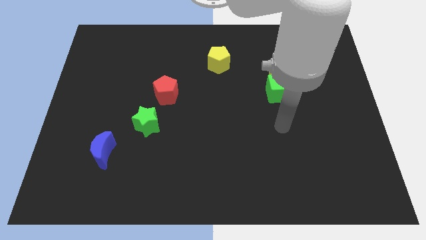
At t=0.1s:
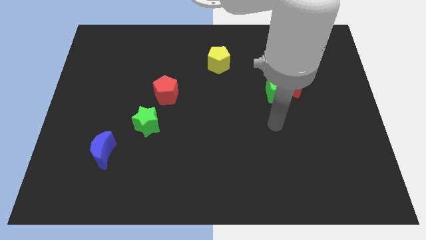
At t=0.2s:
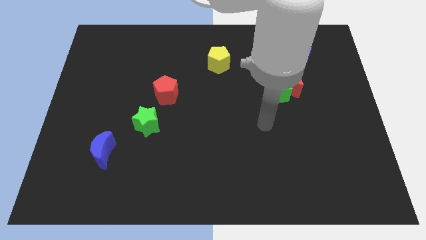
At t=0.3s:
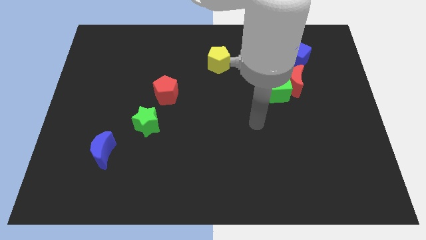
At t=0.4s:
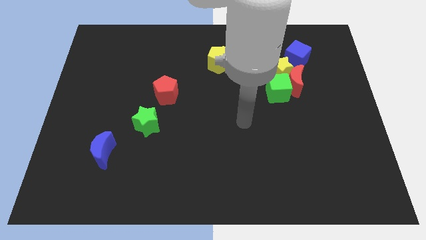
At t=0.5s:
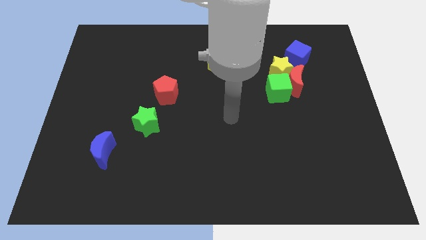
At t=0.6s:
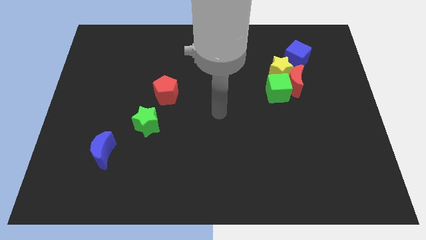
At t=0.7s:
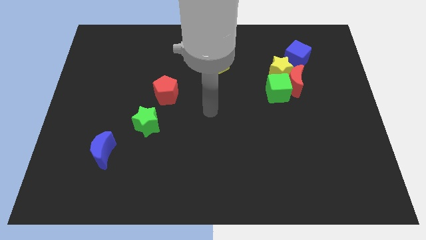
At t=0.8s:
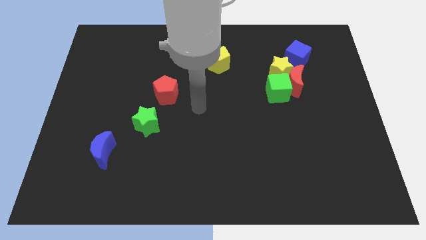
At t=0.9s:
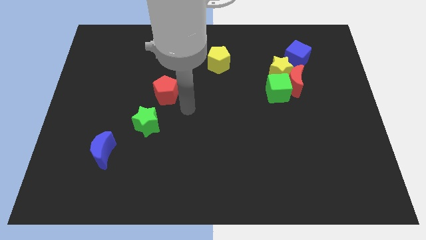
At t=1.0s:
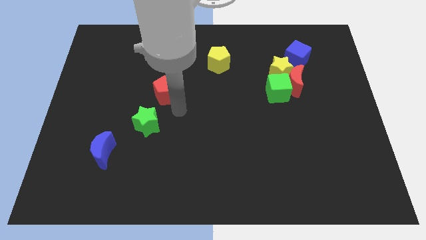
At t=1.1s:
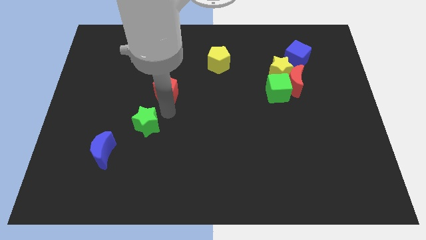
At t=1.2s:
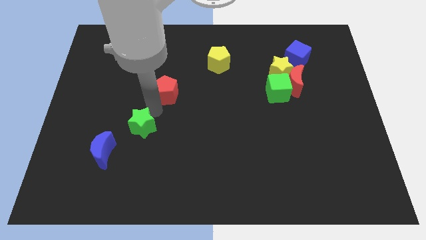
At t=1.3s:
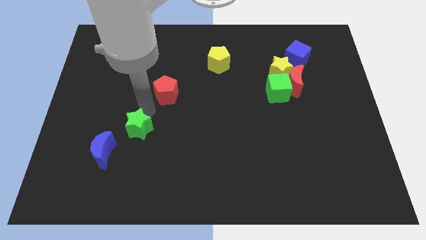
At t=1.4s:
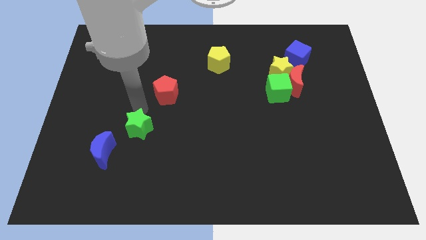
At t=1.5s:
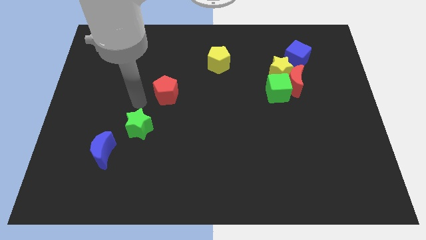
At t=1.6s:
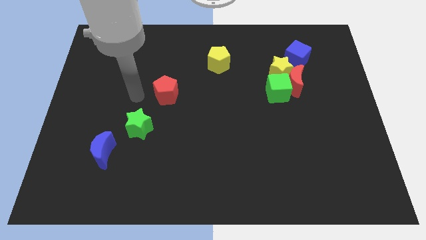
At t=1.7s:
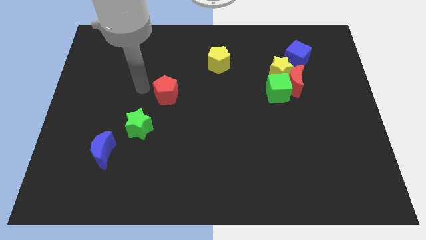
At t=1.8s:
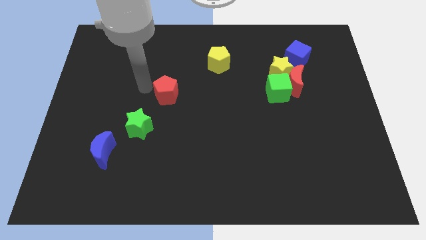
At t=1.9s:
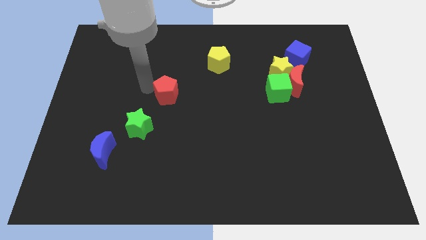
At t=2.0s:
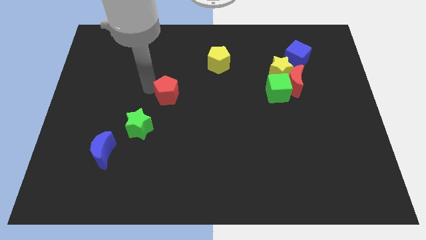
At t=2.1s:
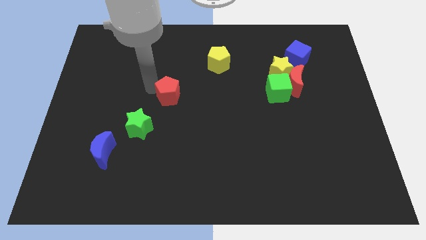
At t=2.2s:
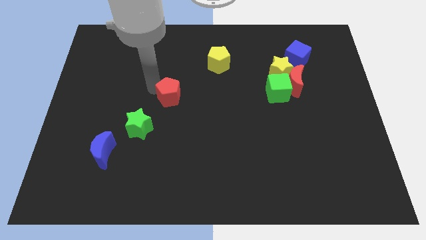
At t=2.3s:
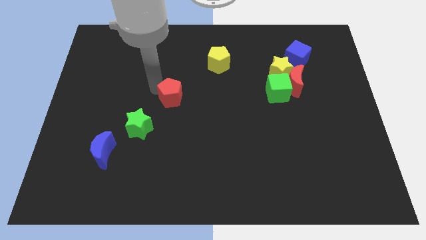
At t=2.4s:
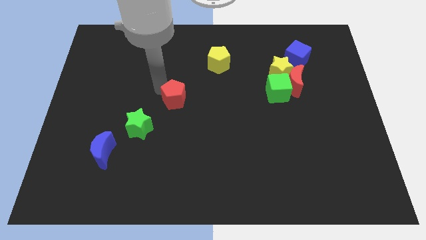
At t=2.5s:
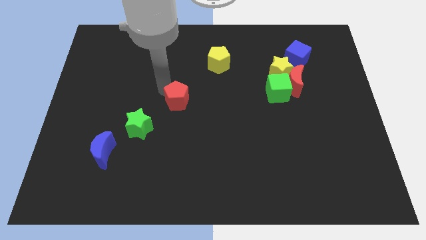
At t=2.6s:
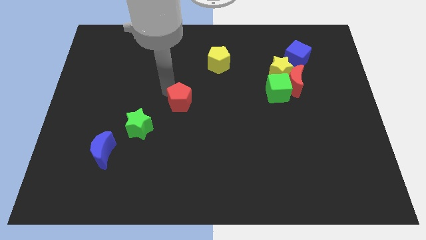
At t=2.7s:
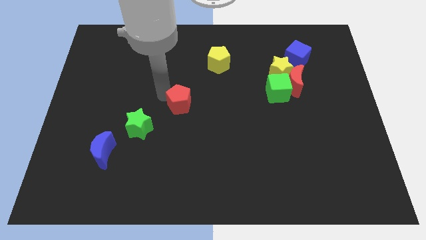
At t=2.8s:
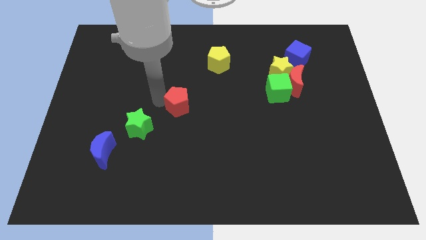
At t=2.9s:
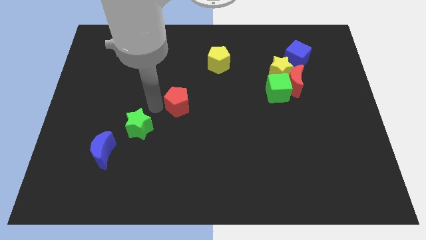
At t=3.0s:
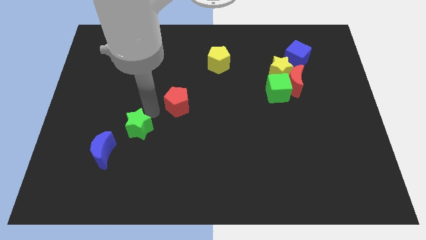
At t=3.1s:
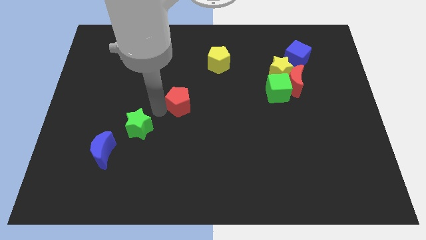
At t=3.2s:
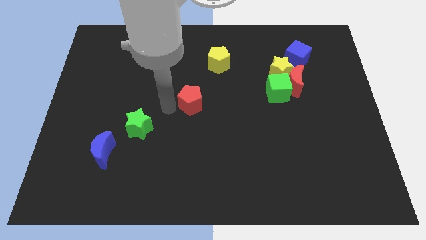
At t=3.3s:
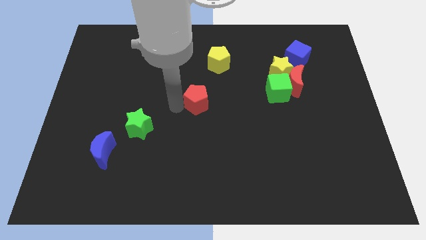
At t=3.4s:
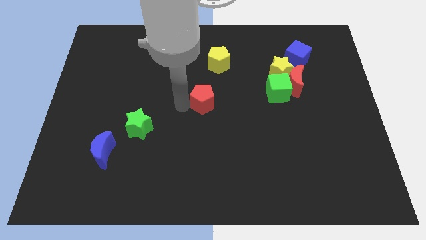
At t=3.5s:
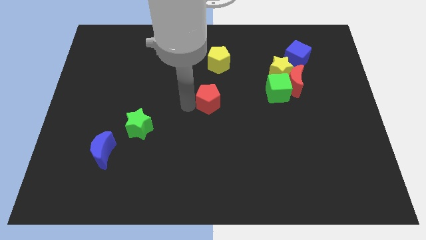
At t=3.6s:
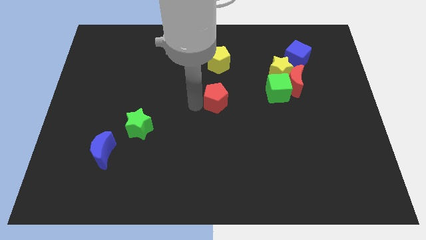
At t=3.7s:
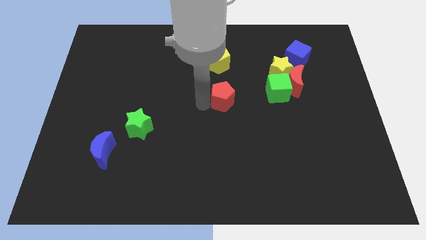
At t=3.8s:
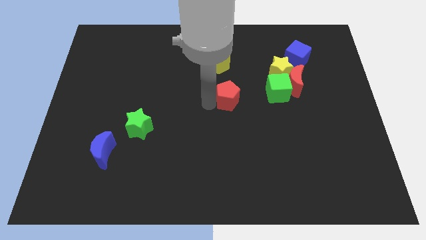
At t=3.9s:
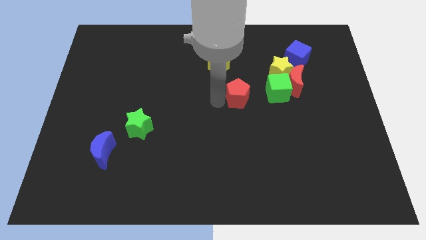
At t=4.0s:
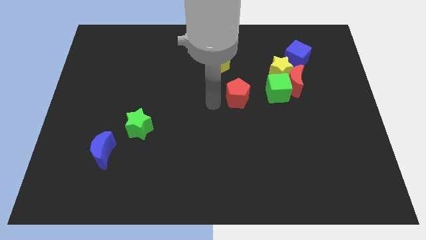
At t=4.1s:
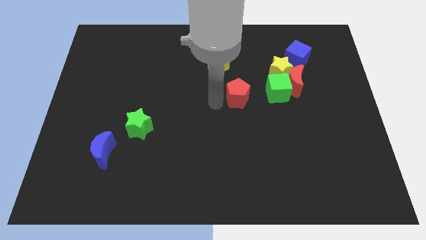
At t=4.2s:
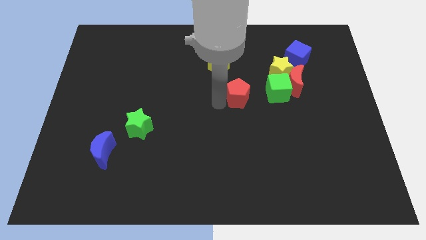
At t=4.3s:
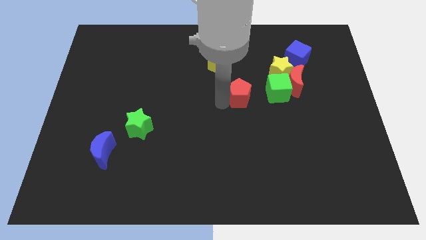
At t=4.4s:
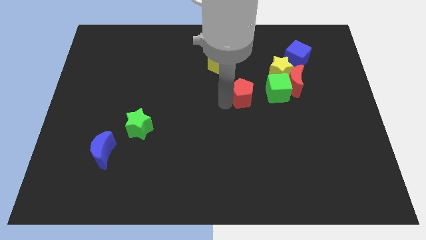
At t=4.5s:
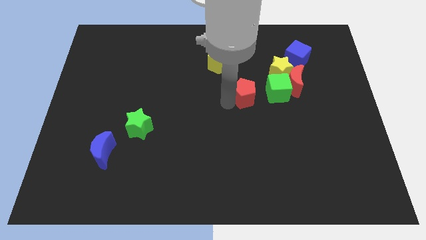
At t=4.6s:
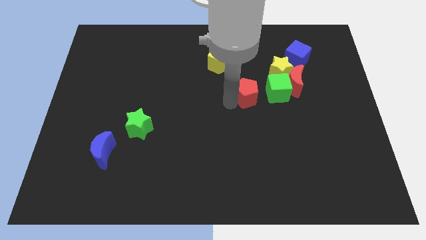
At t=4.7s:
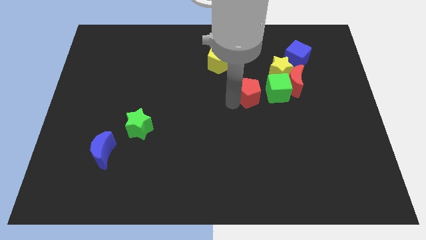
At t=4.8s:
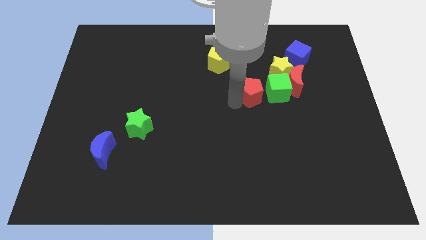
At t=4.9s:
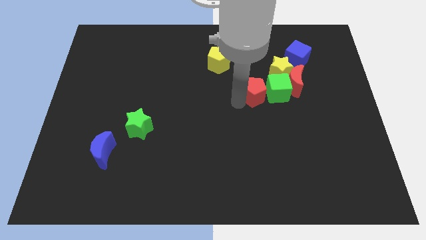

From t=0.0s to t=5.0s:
push the red pentagon close to the green cube

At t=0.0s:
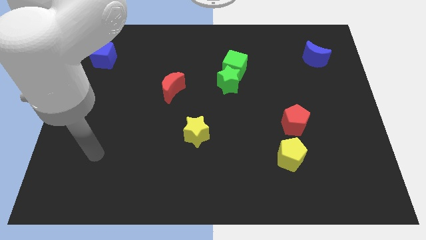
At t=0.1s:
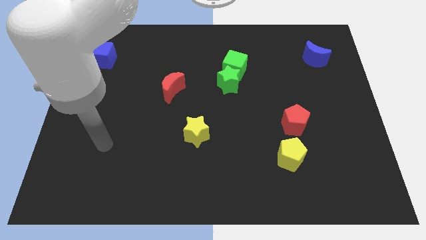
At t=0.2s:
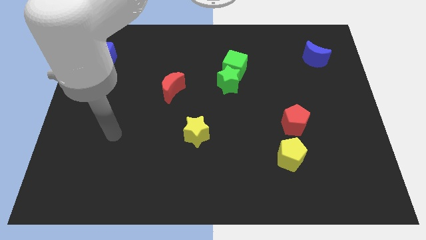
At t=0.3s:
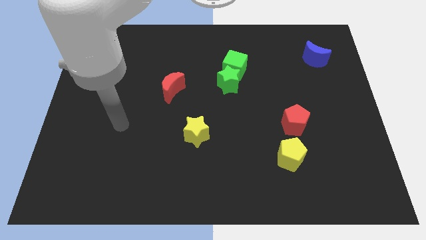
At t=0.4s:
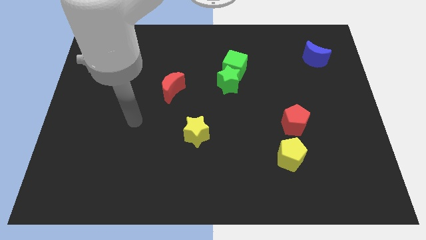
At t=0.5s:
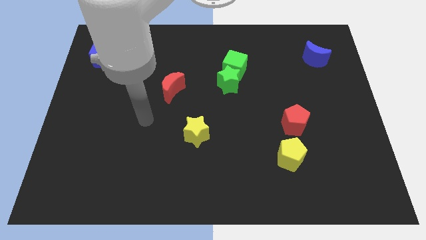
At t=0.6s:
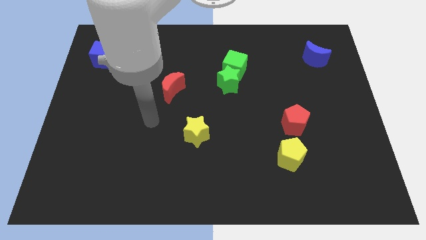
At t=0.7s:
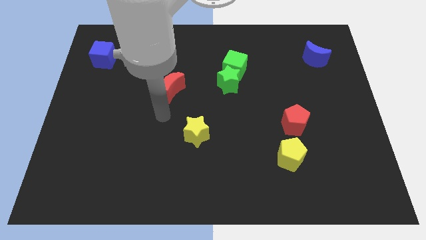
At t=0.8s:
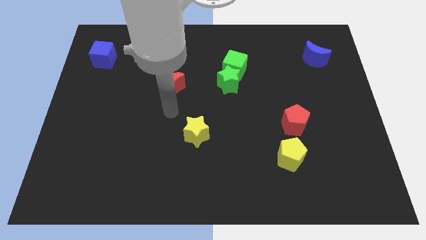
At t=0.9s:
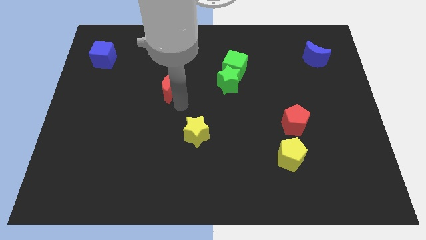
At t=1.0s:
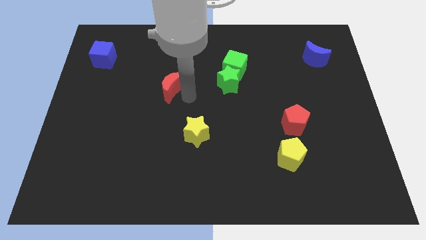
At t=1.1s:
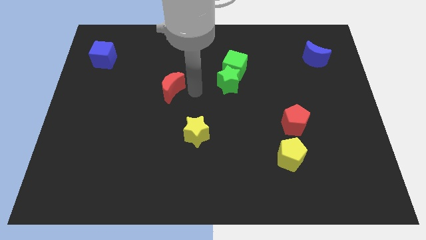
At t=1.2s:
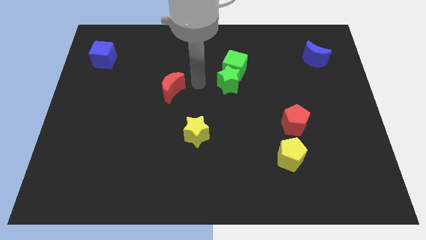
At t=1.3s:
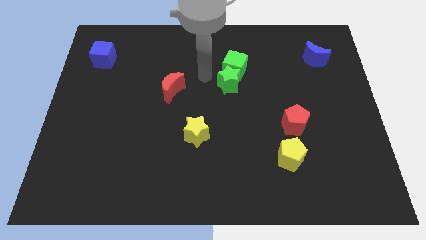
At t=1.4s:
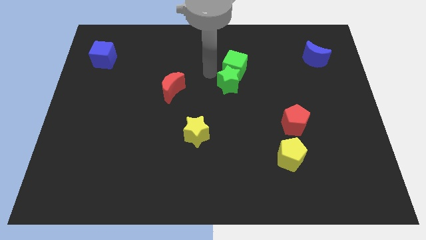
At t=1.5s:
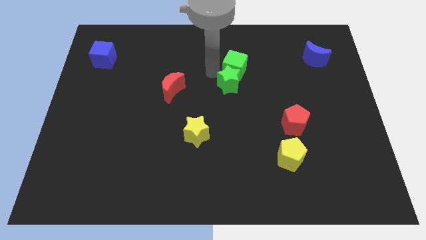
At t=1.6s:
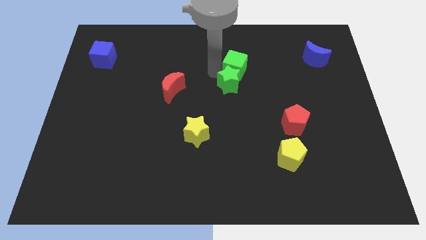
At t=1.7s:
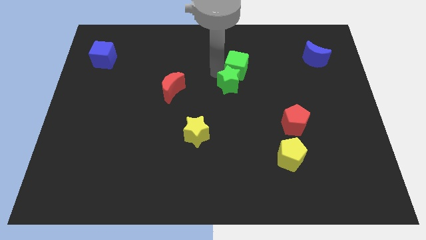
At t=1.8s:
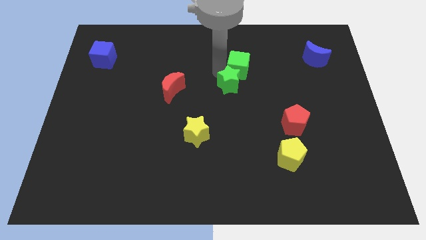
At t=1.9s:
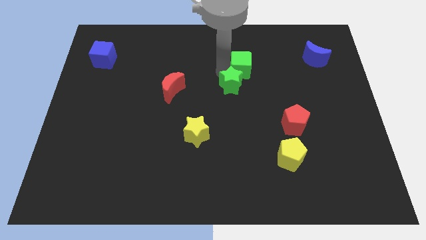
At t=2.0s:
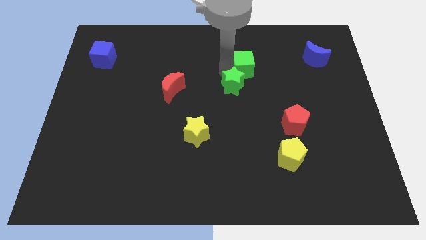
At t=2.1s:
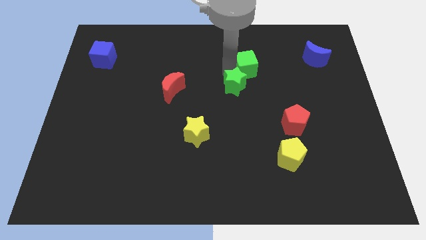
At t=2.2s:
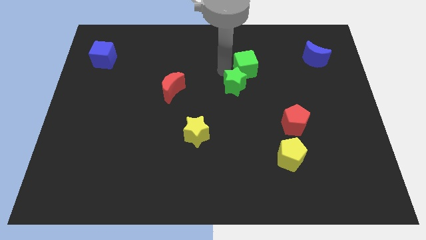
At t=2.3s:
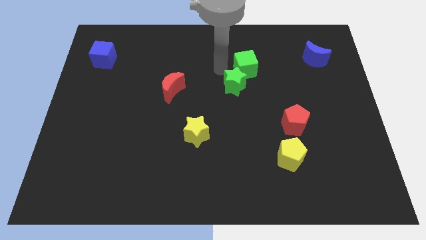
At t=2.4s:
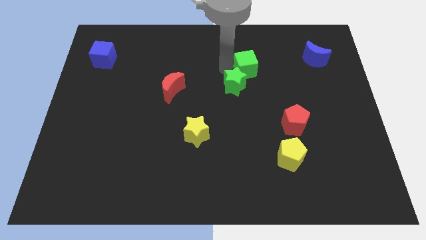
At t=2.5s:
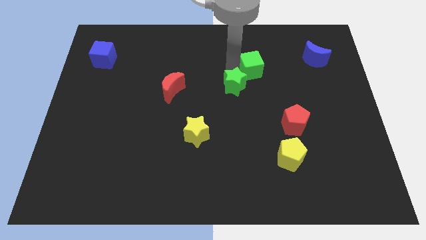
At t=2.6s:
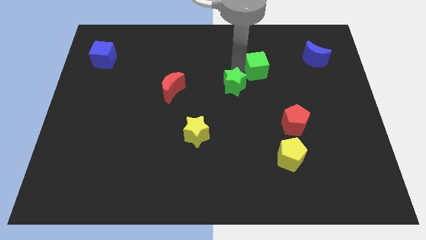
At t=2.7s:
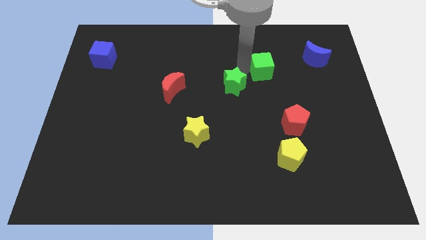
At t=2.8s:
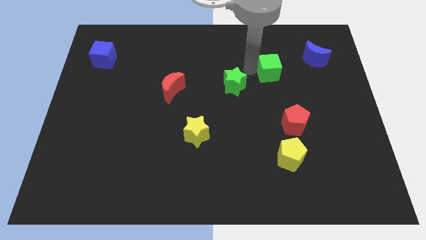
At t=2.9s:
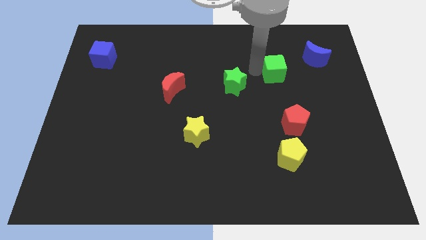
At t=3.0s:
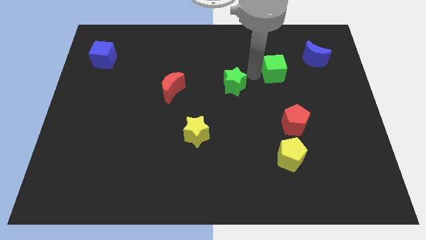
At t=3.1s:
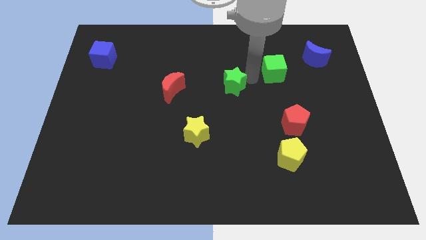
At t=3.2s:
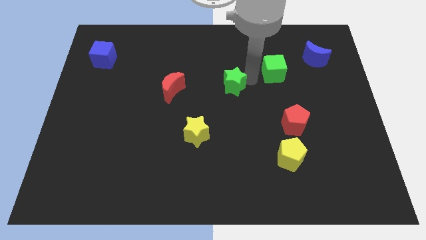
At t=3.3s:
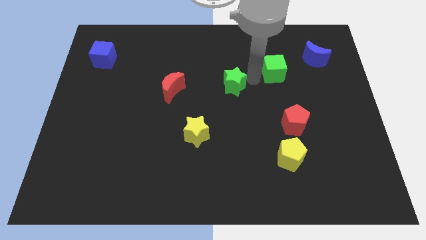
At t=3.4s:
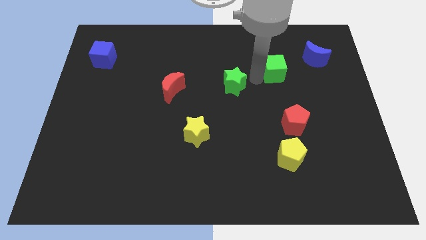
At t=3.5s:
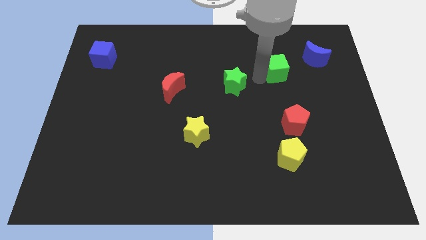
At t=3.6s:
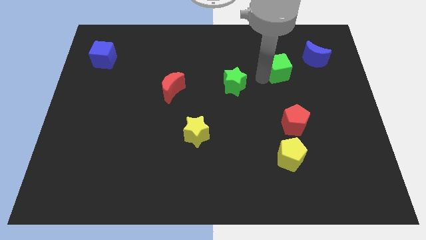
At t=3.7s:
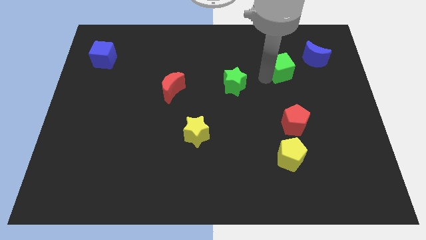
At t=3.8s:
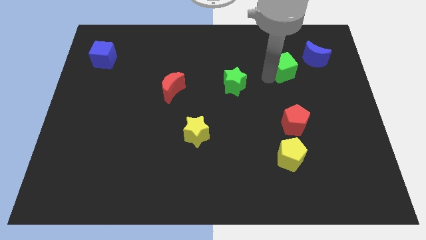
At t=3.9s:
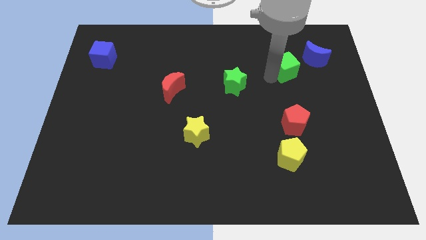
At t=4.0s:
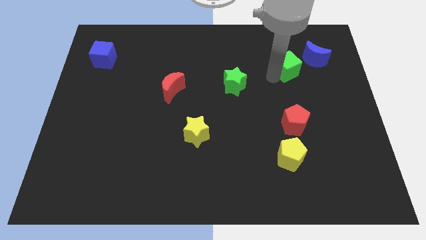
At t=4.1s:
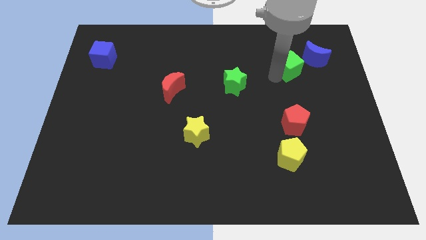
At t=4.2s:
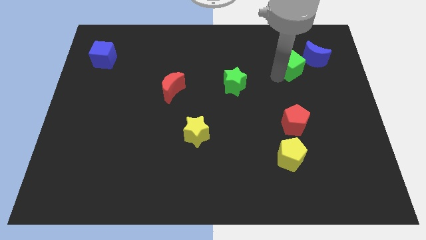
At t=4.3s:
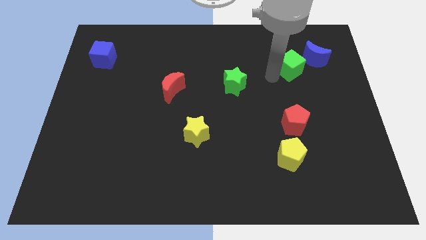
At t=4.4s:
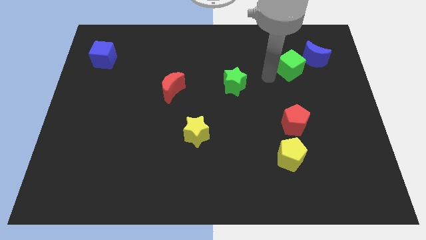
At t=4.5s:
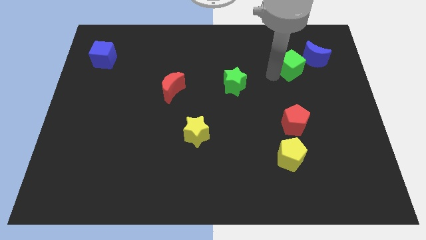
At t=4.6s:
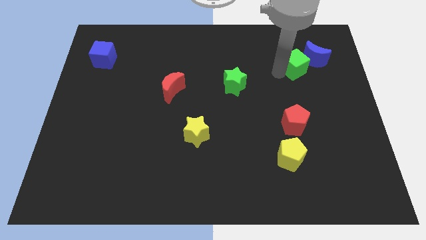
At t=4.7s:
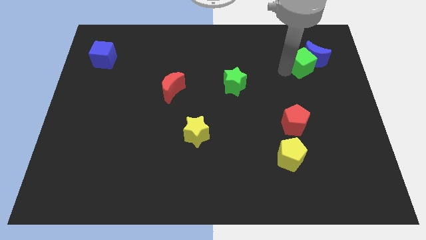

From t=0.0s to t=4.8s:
push the green cube close to the blue moon
